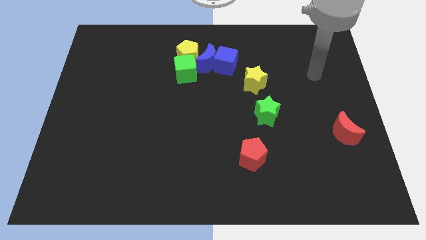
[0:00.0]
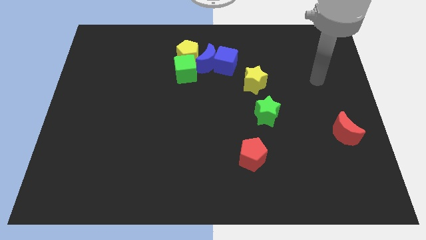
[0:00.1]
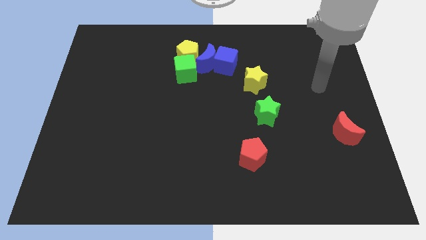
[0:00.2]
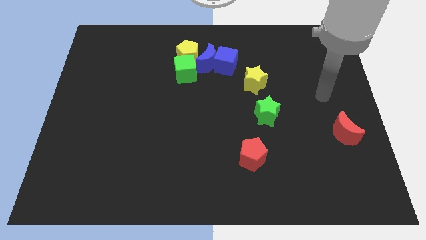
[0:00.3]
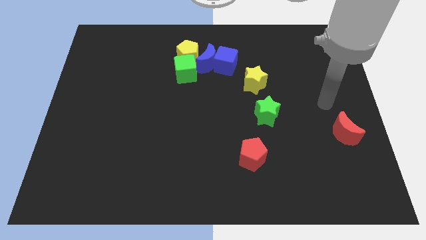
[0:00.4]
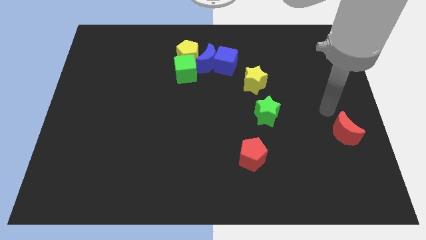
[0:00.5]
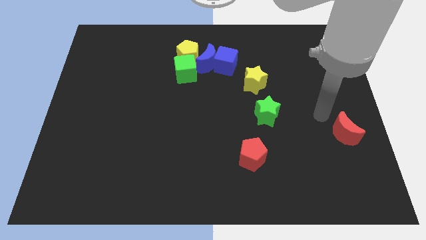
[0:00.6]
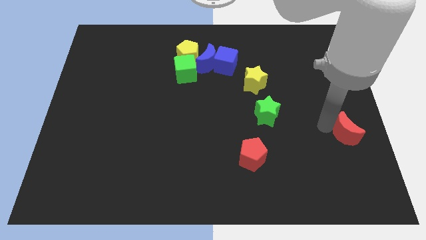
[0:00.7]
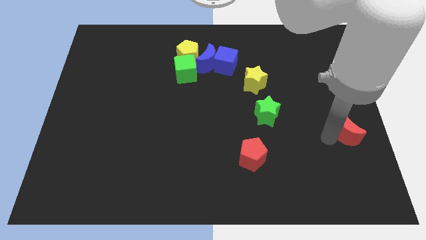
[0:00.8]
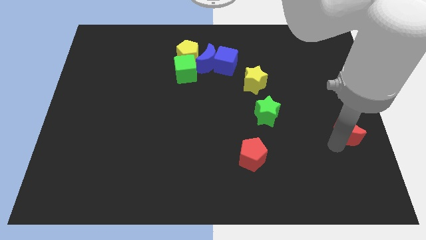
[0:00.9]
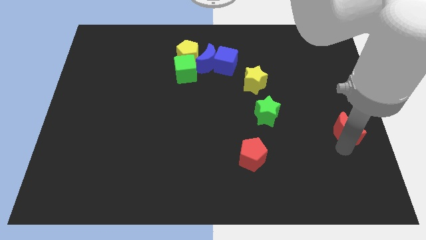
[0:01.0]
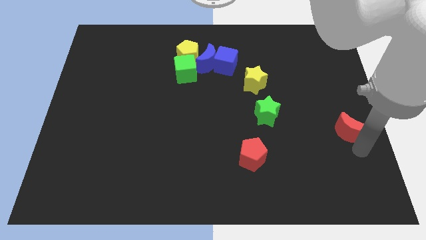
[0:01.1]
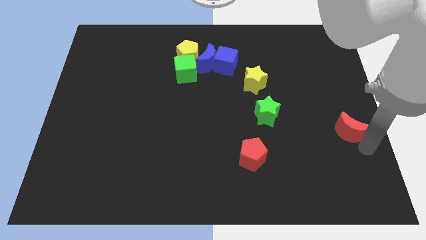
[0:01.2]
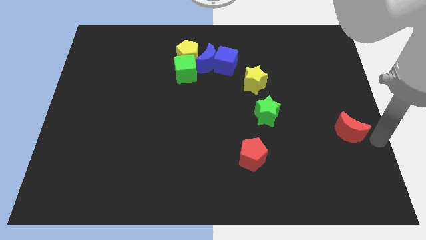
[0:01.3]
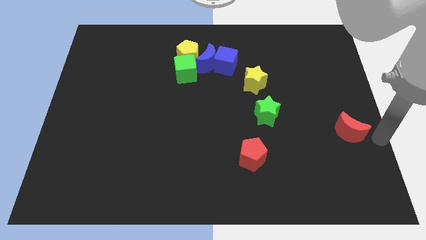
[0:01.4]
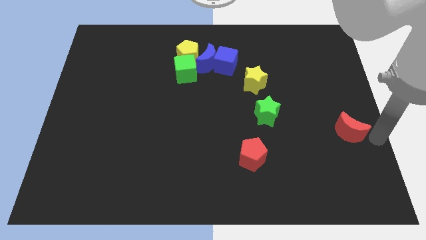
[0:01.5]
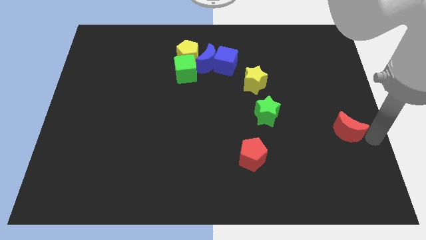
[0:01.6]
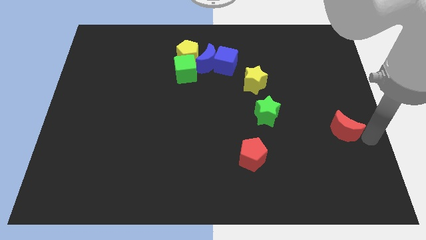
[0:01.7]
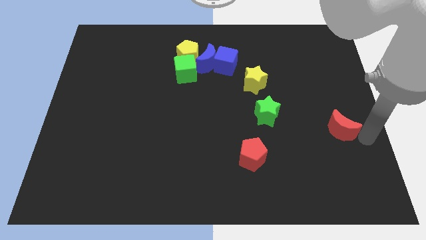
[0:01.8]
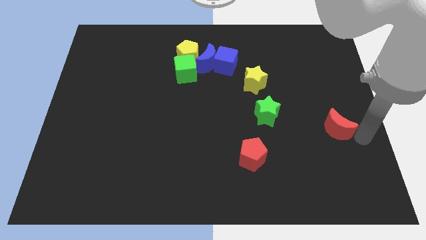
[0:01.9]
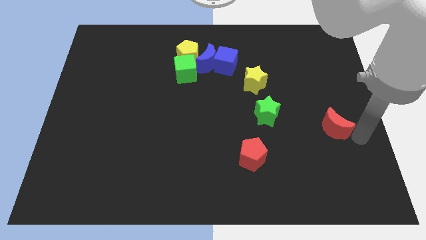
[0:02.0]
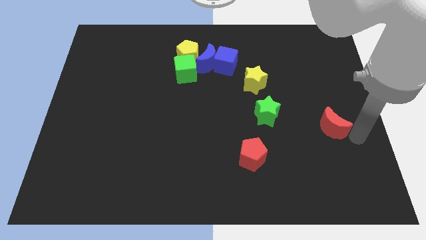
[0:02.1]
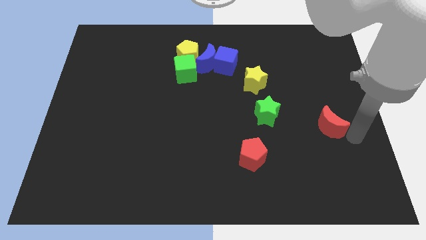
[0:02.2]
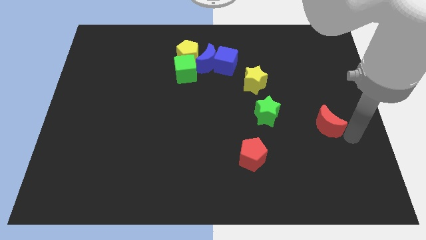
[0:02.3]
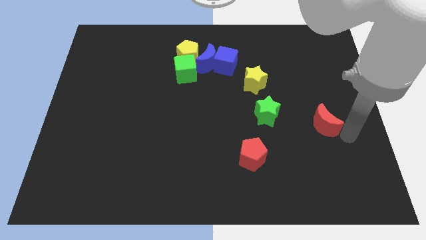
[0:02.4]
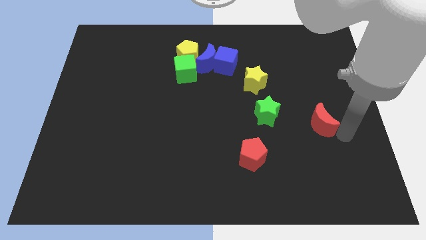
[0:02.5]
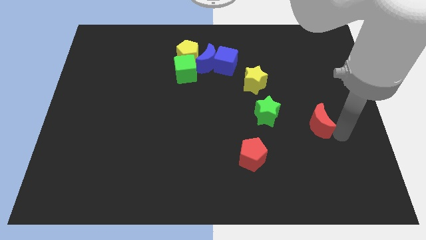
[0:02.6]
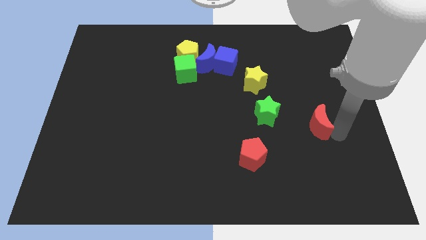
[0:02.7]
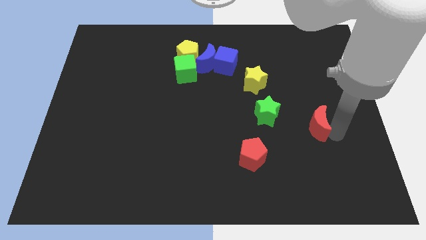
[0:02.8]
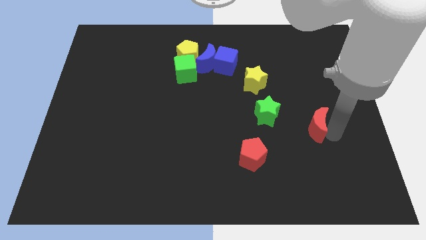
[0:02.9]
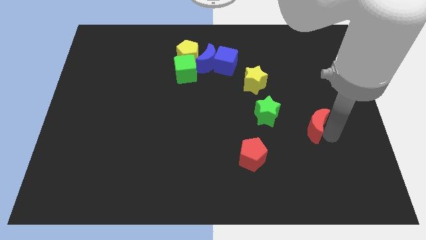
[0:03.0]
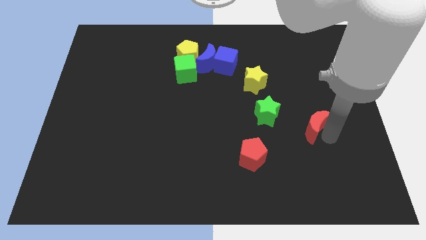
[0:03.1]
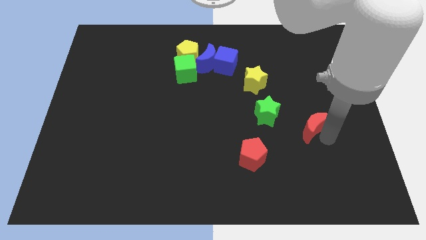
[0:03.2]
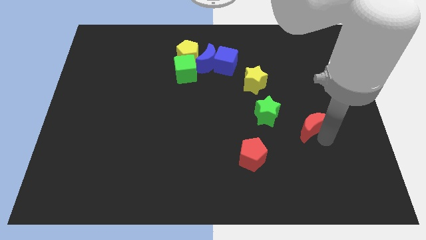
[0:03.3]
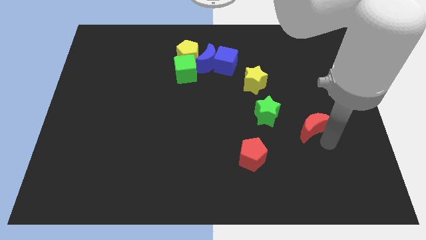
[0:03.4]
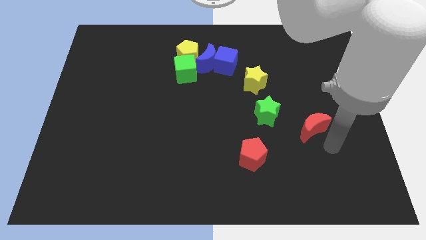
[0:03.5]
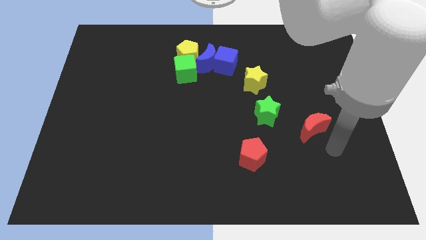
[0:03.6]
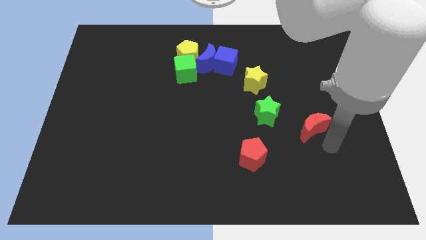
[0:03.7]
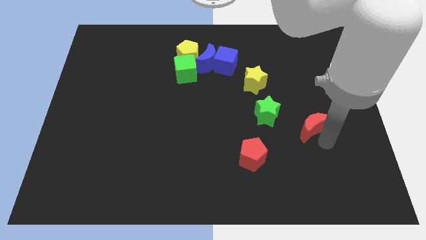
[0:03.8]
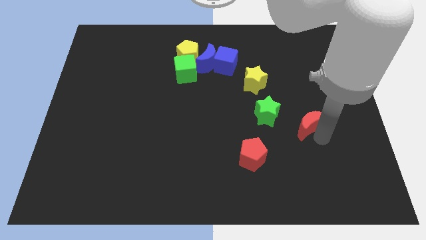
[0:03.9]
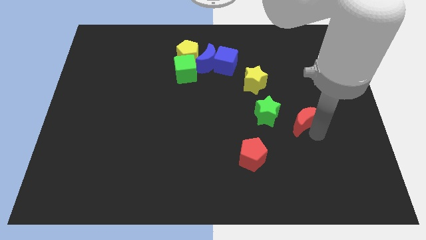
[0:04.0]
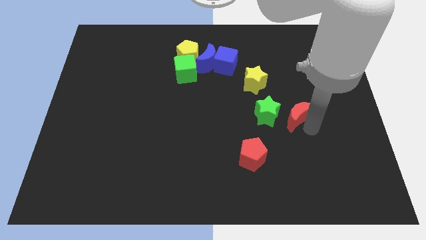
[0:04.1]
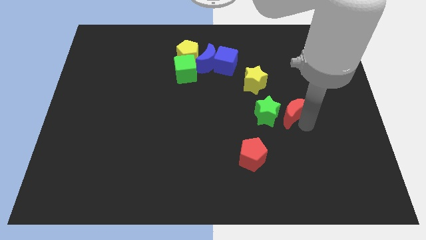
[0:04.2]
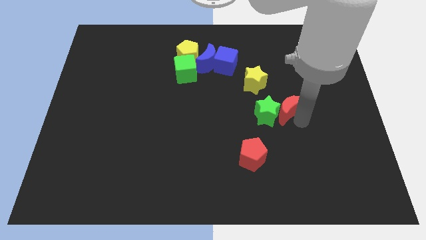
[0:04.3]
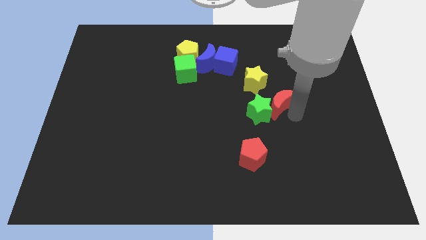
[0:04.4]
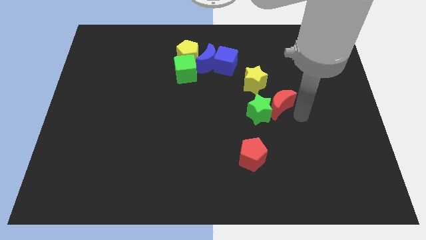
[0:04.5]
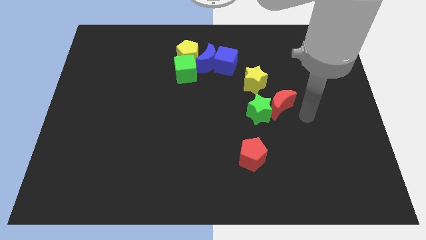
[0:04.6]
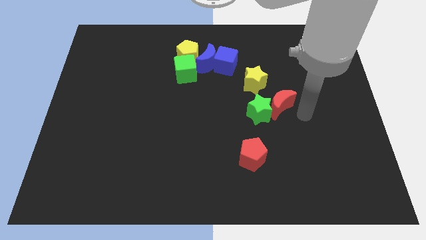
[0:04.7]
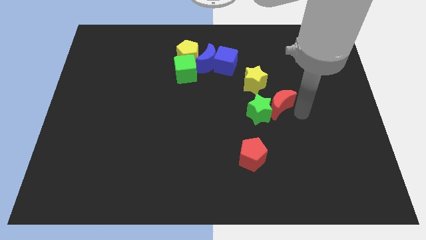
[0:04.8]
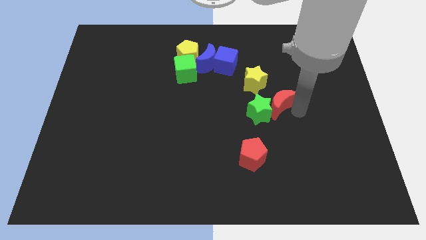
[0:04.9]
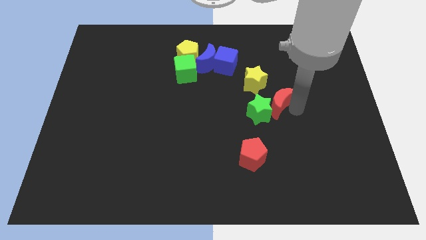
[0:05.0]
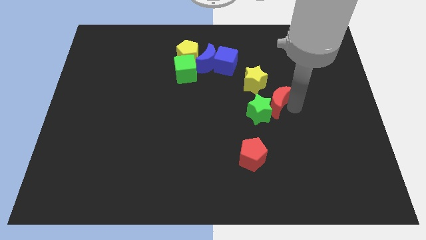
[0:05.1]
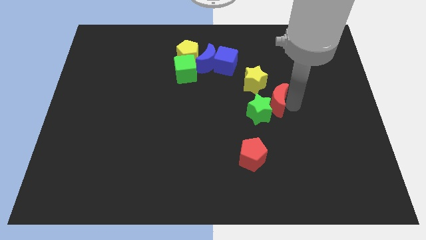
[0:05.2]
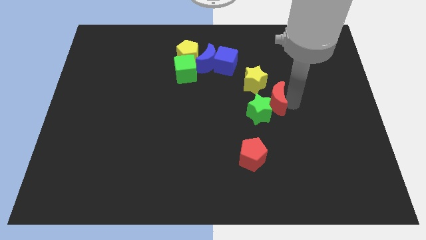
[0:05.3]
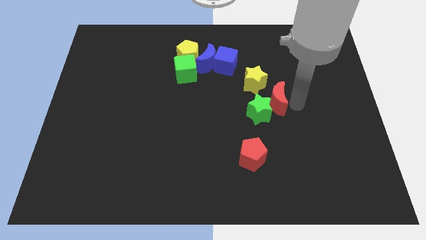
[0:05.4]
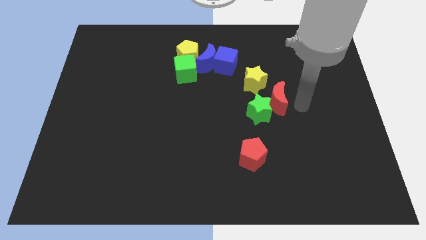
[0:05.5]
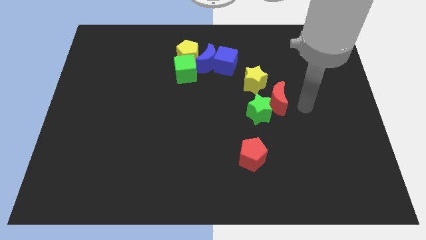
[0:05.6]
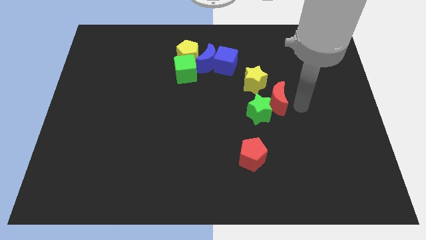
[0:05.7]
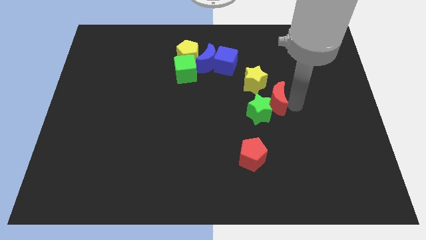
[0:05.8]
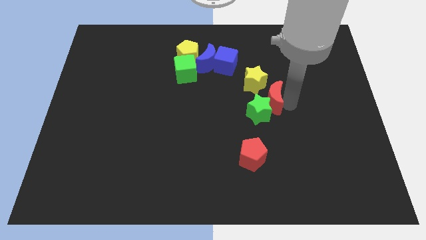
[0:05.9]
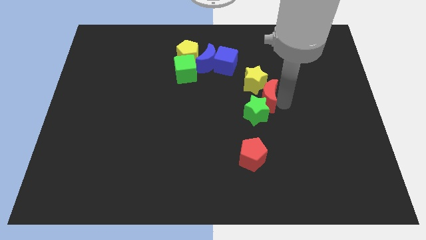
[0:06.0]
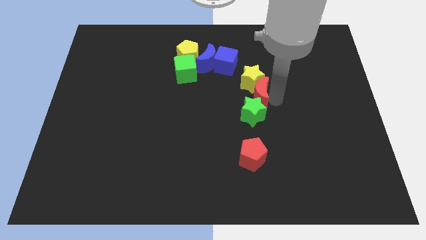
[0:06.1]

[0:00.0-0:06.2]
slide the red moon to the middle of the board

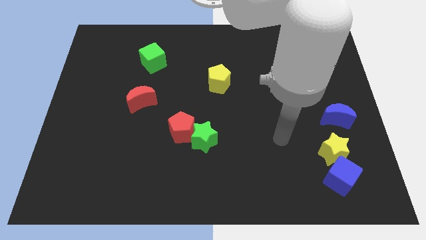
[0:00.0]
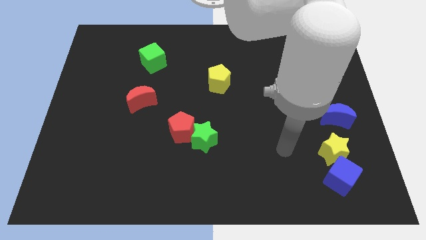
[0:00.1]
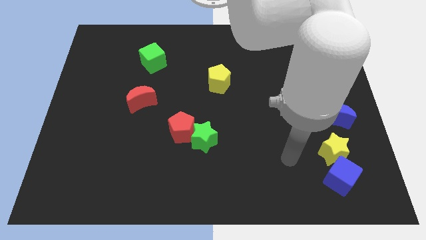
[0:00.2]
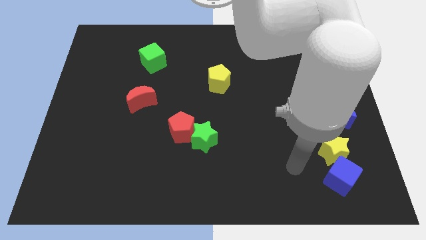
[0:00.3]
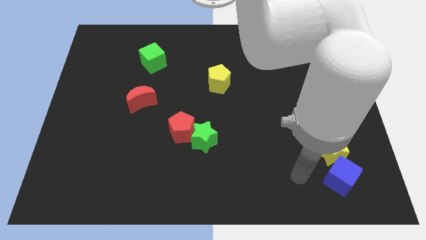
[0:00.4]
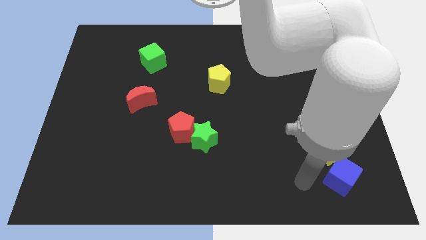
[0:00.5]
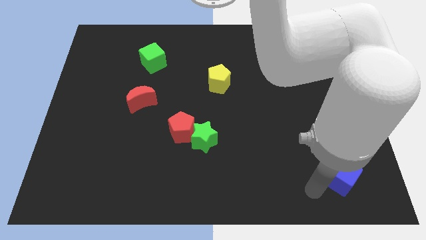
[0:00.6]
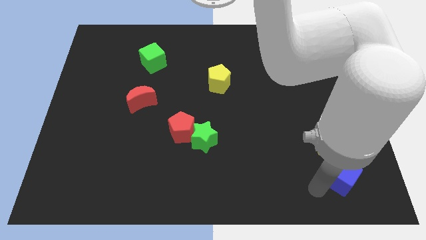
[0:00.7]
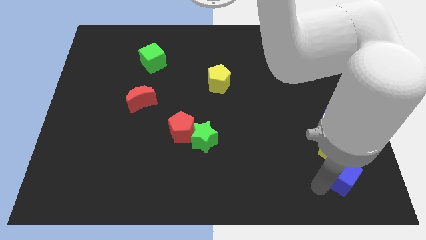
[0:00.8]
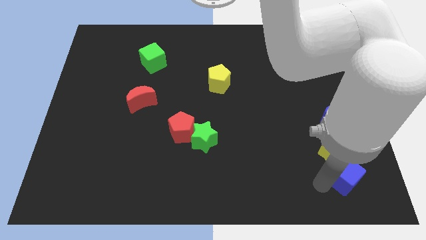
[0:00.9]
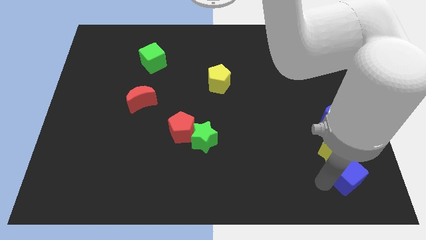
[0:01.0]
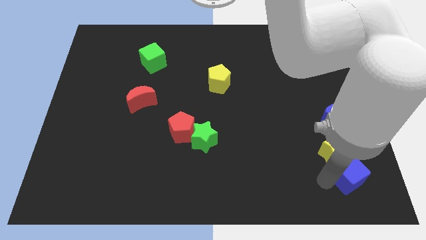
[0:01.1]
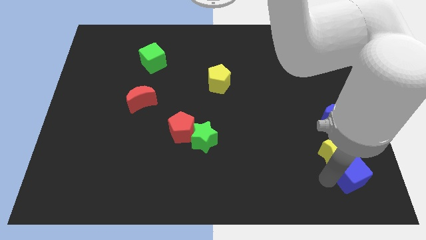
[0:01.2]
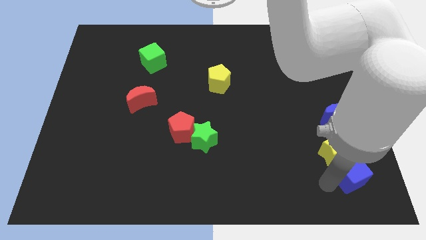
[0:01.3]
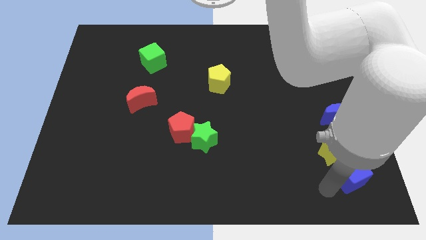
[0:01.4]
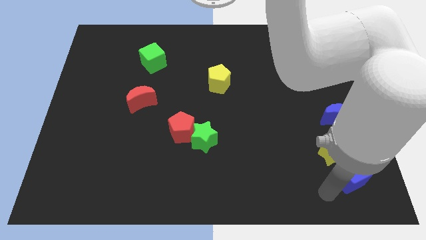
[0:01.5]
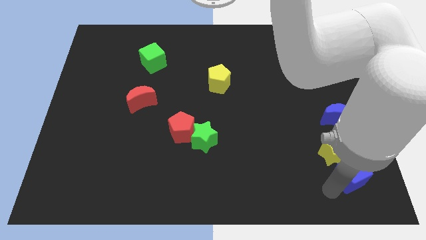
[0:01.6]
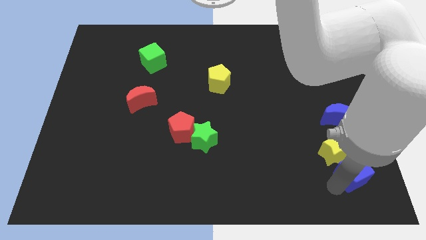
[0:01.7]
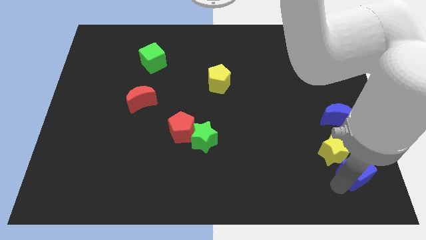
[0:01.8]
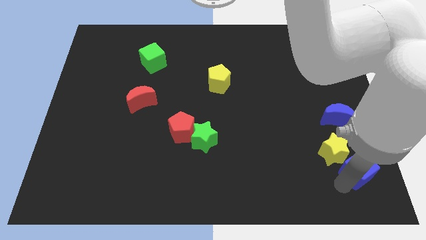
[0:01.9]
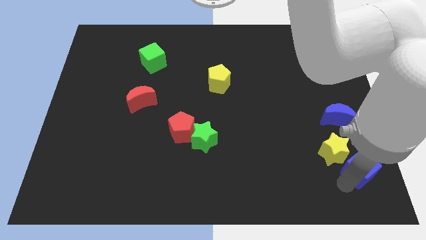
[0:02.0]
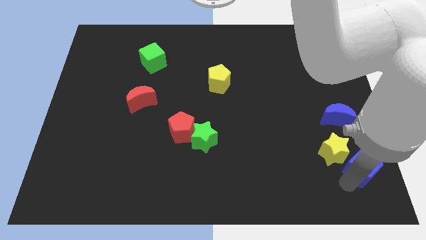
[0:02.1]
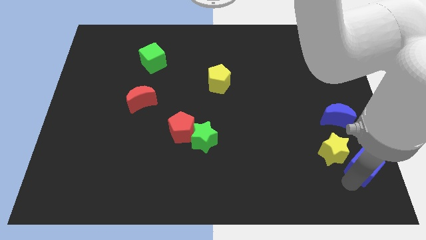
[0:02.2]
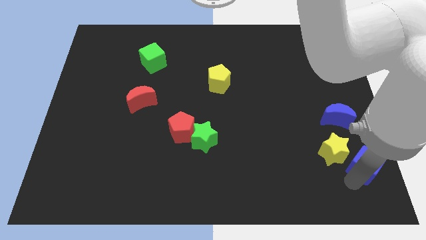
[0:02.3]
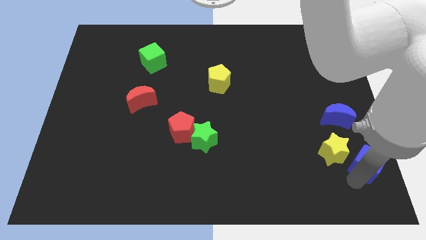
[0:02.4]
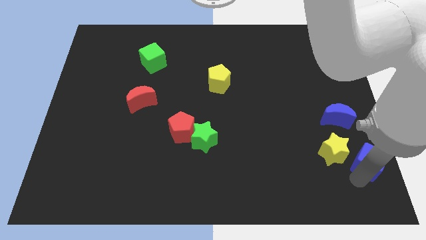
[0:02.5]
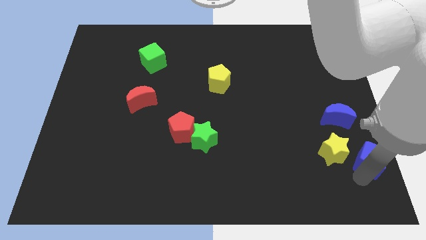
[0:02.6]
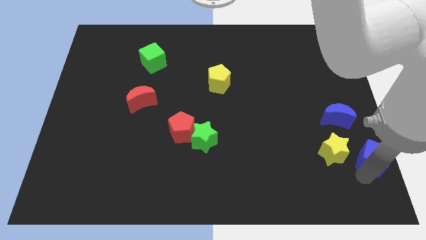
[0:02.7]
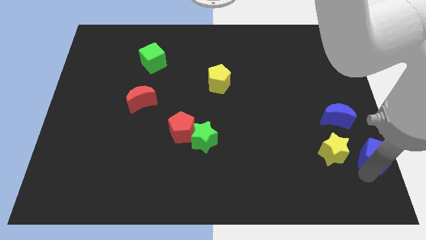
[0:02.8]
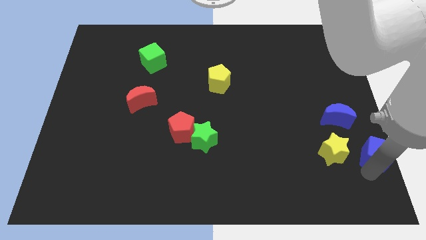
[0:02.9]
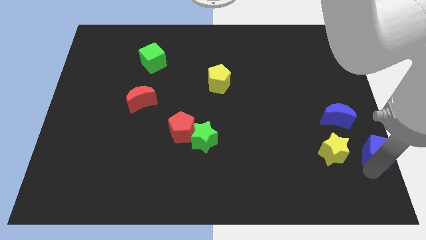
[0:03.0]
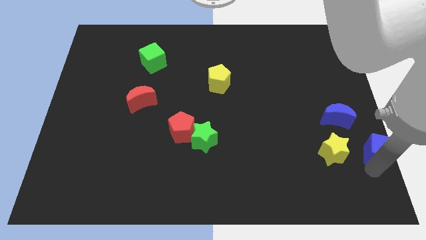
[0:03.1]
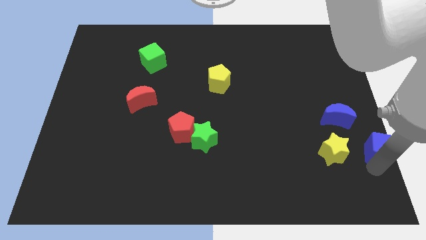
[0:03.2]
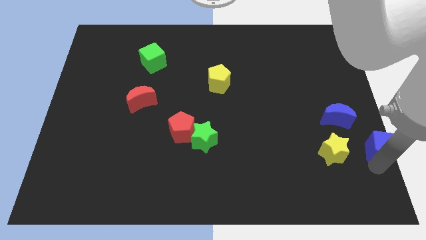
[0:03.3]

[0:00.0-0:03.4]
put the blue cube to the right side of the board
